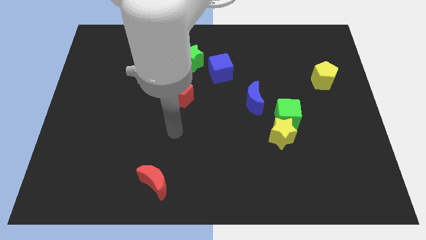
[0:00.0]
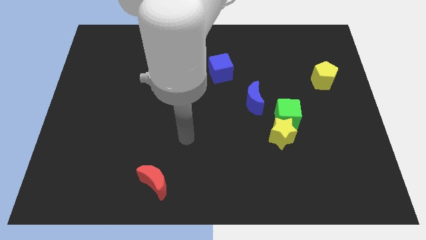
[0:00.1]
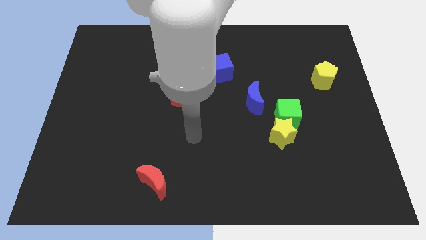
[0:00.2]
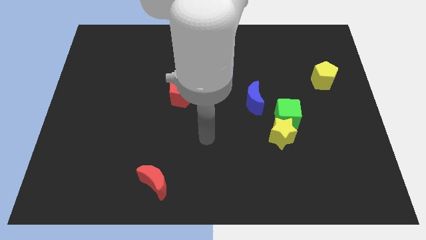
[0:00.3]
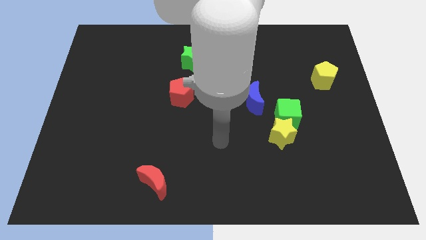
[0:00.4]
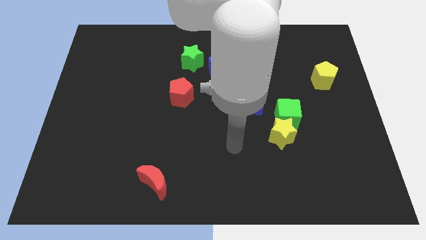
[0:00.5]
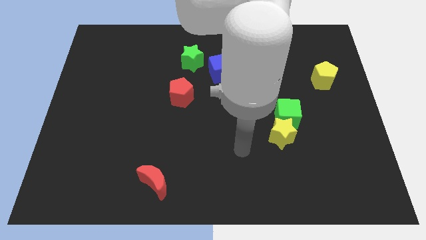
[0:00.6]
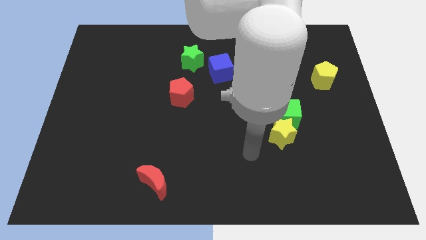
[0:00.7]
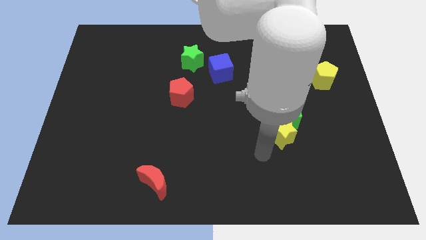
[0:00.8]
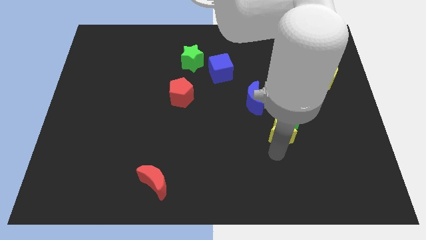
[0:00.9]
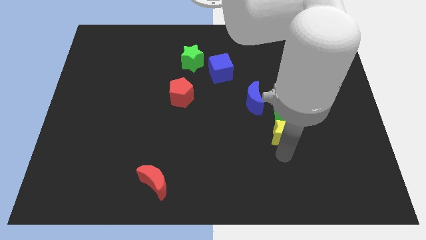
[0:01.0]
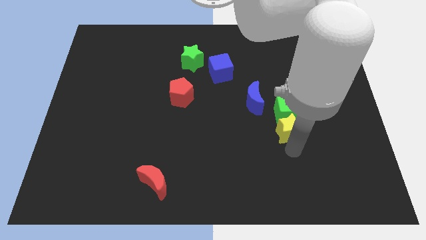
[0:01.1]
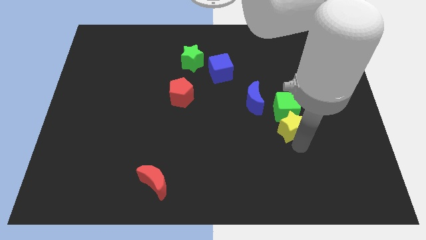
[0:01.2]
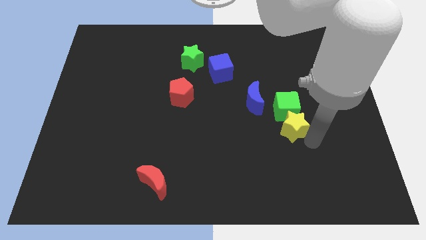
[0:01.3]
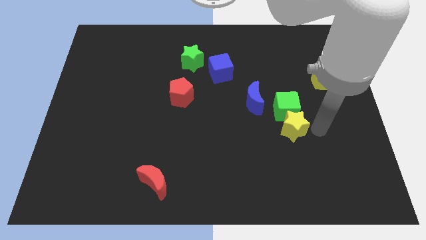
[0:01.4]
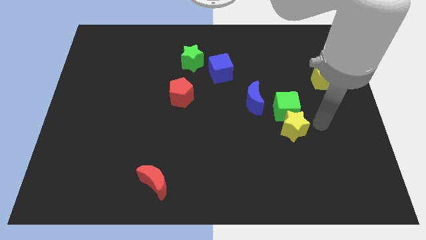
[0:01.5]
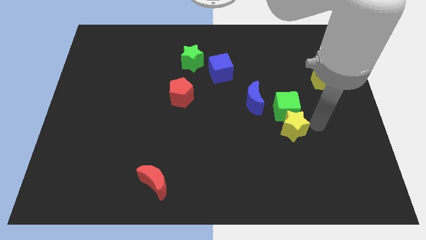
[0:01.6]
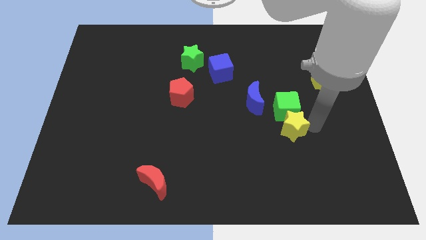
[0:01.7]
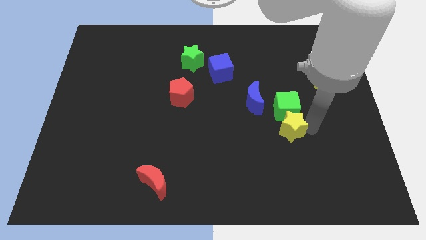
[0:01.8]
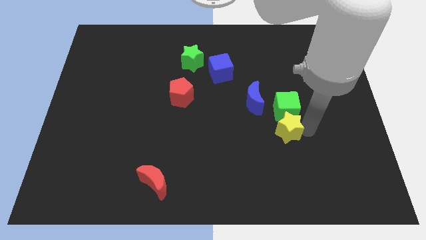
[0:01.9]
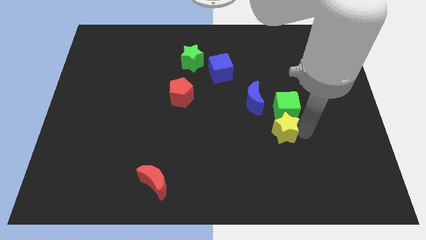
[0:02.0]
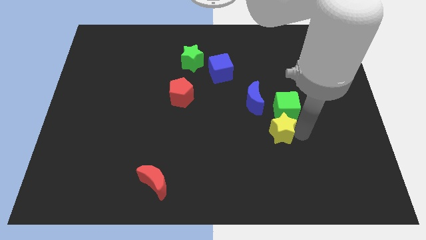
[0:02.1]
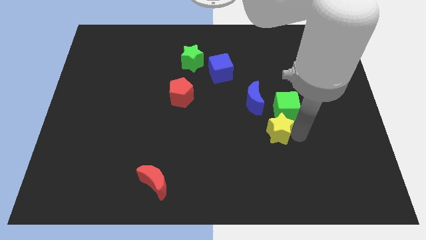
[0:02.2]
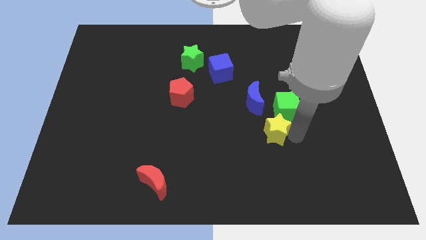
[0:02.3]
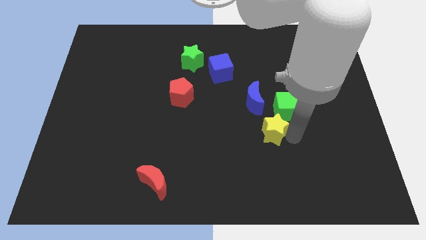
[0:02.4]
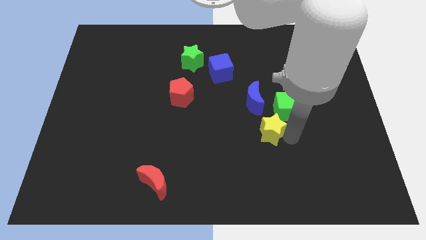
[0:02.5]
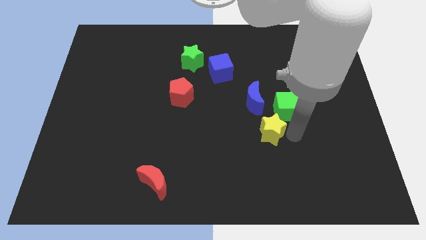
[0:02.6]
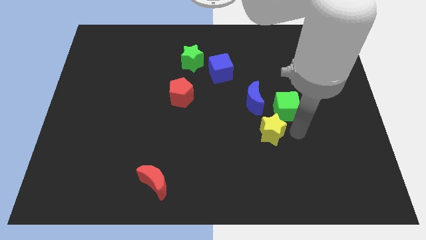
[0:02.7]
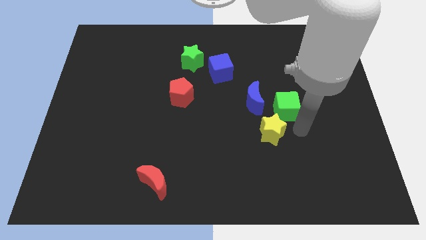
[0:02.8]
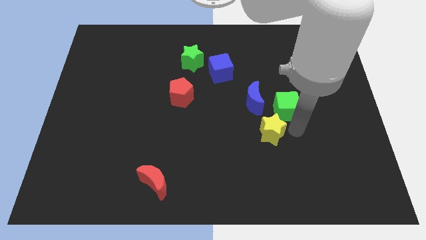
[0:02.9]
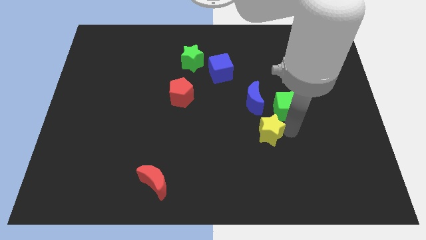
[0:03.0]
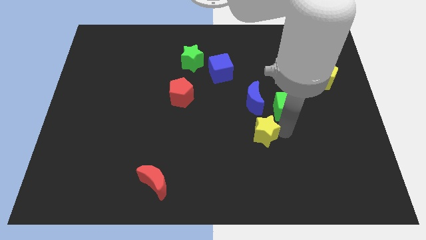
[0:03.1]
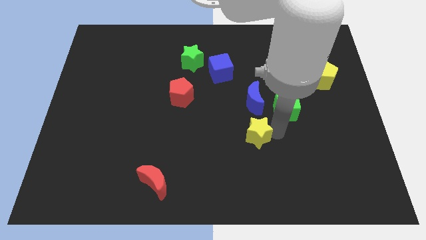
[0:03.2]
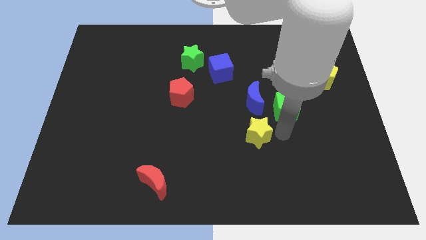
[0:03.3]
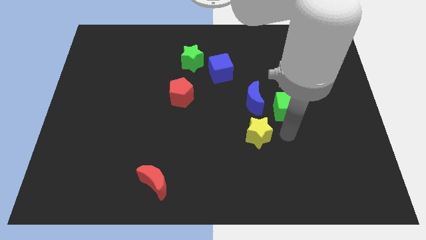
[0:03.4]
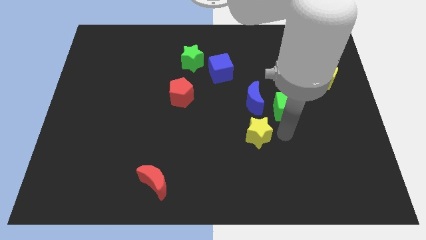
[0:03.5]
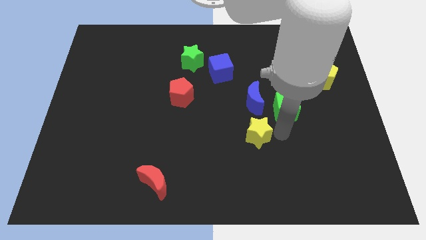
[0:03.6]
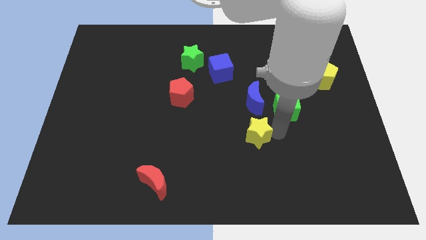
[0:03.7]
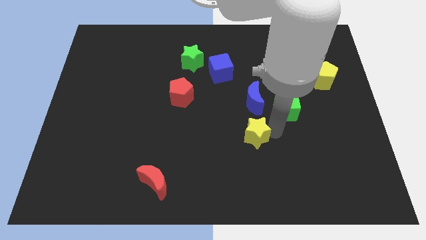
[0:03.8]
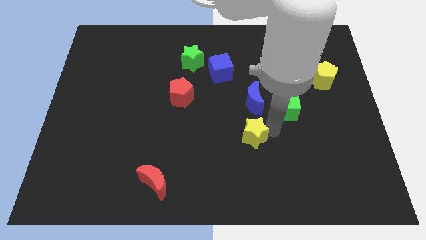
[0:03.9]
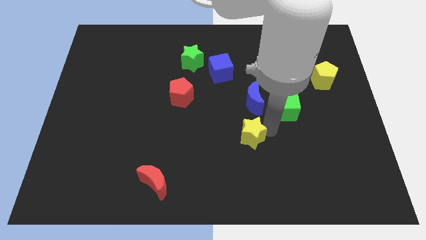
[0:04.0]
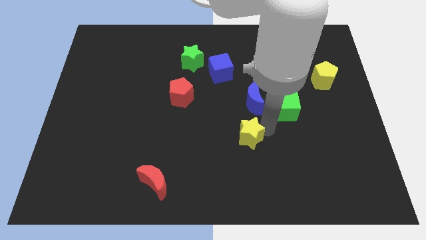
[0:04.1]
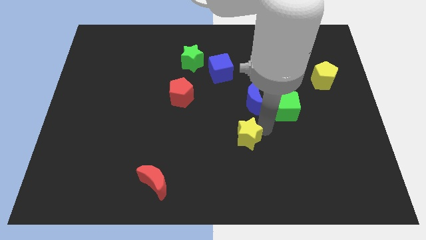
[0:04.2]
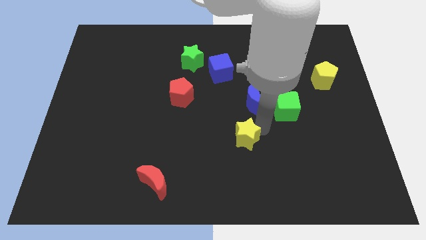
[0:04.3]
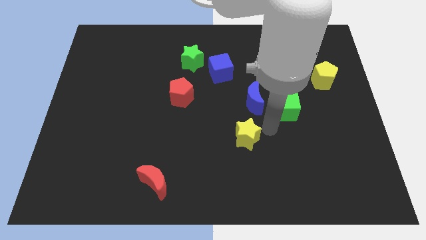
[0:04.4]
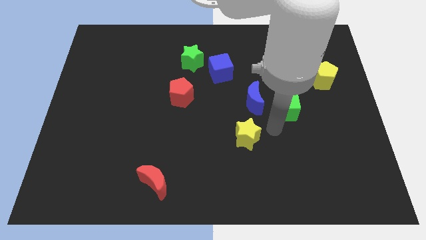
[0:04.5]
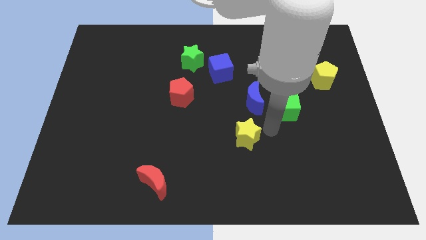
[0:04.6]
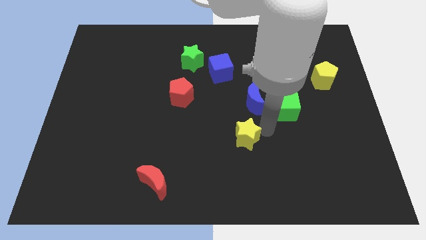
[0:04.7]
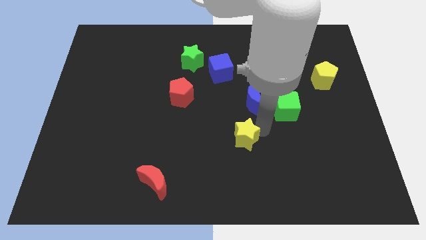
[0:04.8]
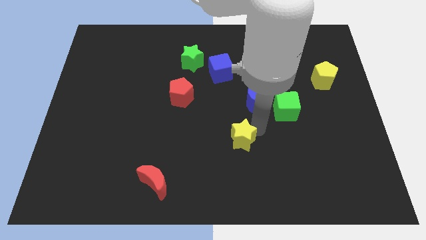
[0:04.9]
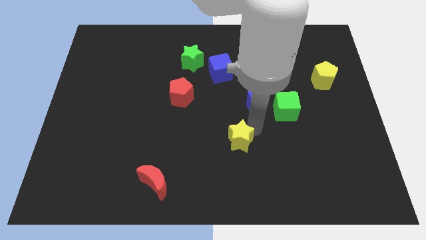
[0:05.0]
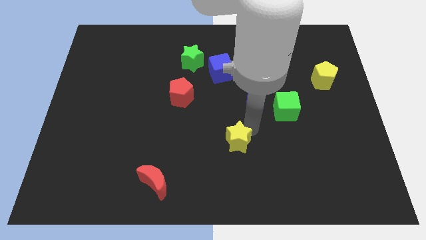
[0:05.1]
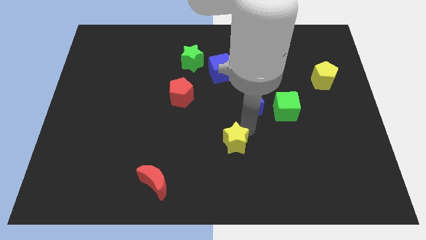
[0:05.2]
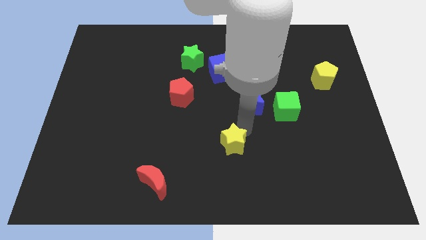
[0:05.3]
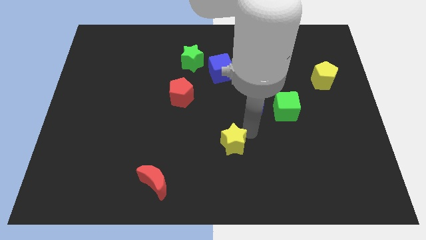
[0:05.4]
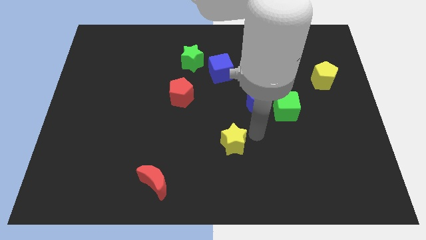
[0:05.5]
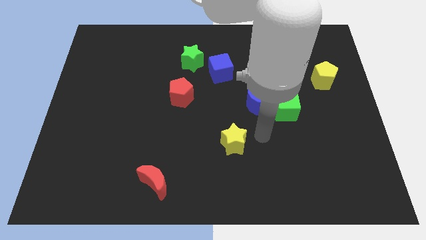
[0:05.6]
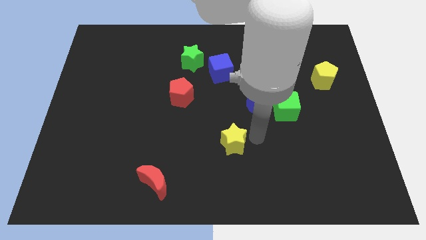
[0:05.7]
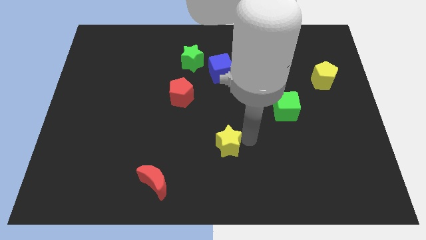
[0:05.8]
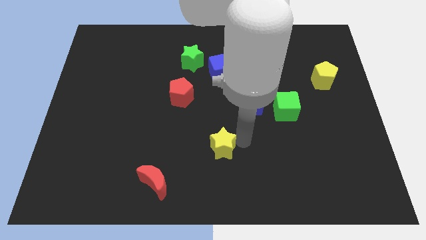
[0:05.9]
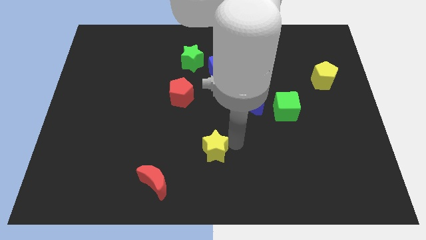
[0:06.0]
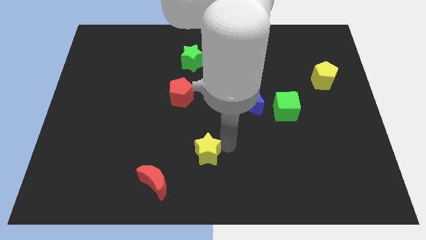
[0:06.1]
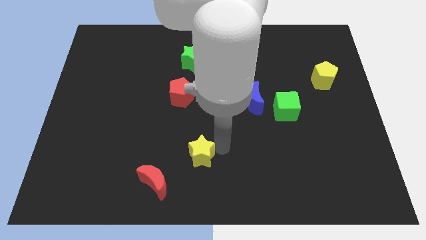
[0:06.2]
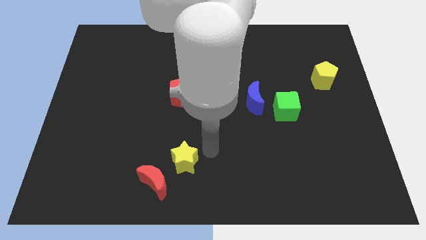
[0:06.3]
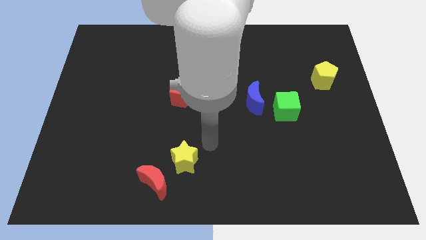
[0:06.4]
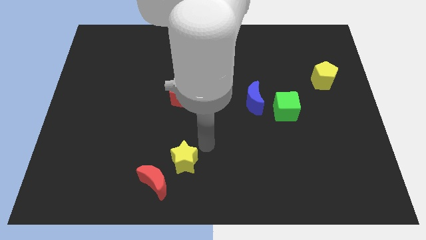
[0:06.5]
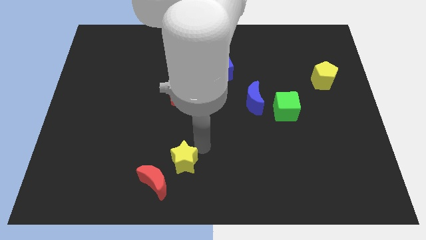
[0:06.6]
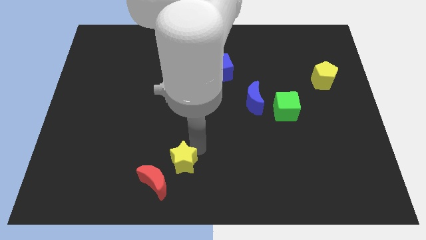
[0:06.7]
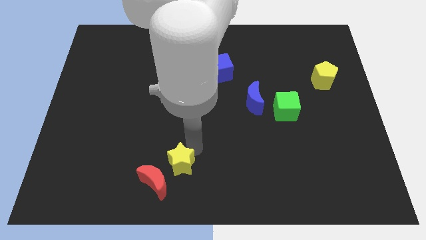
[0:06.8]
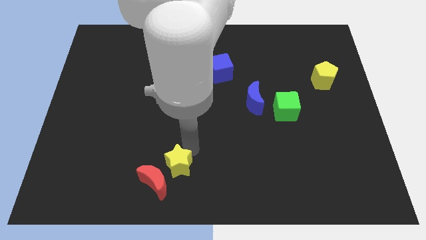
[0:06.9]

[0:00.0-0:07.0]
push the yellow star next to the red moon
